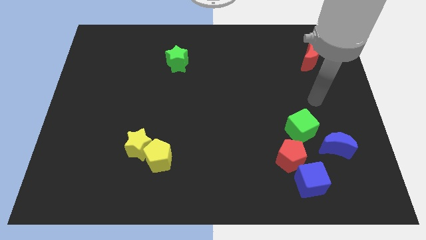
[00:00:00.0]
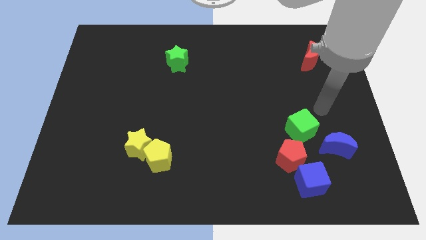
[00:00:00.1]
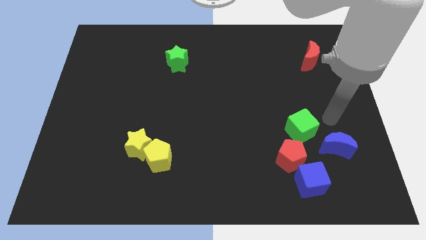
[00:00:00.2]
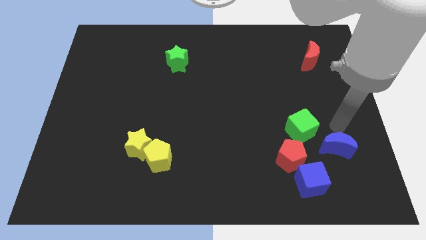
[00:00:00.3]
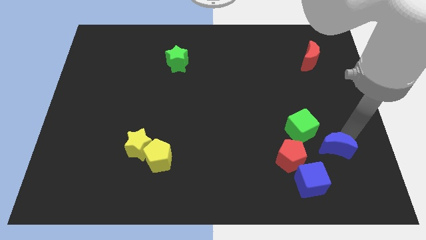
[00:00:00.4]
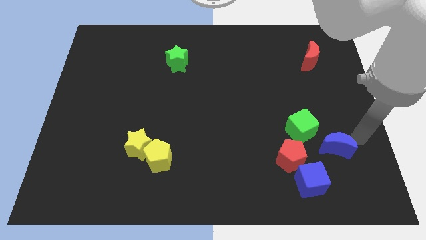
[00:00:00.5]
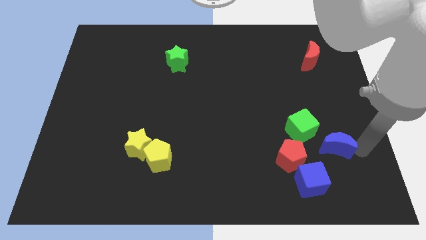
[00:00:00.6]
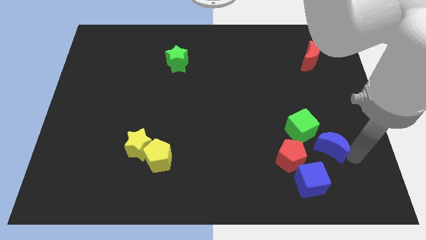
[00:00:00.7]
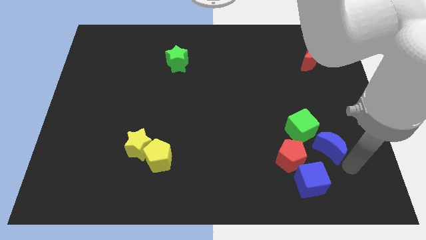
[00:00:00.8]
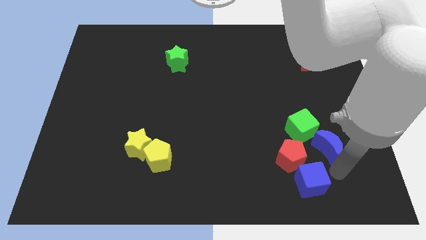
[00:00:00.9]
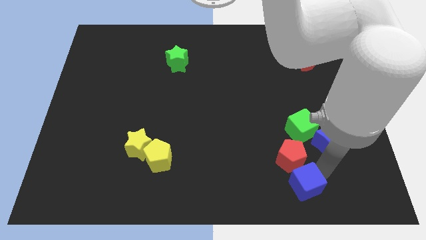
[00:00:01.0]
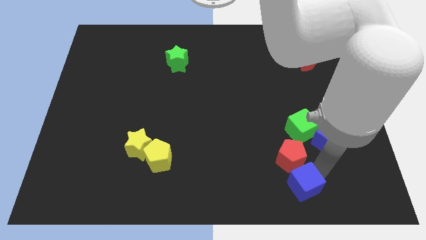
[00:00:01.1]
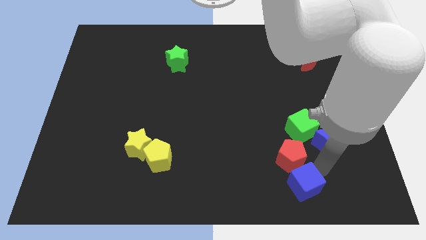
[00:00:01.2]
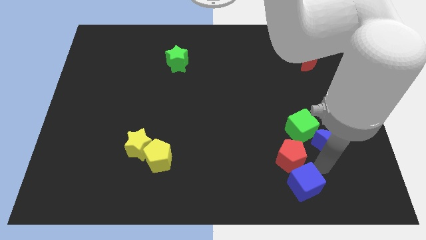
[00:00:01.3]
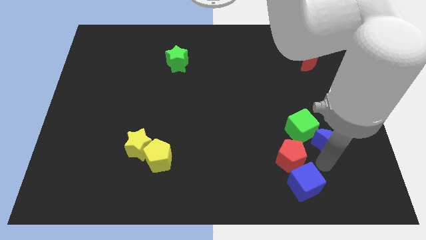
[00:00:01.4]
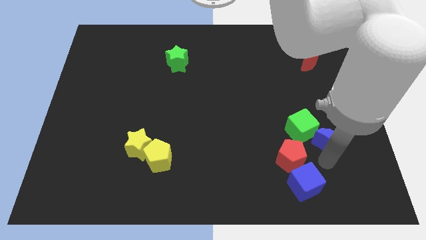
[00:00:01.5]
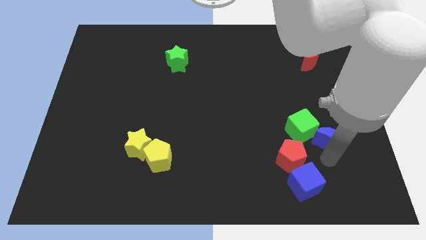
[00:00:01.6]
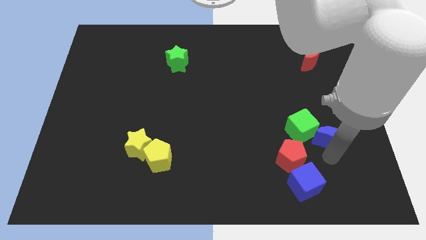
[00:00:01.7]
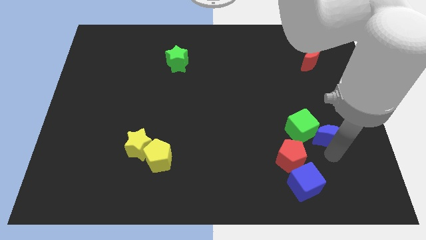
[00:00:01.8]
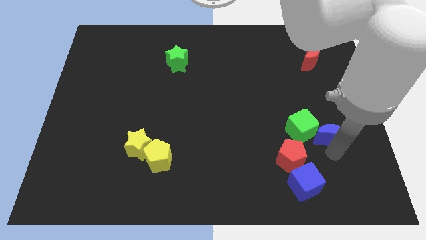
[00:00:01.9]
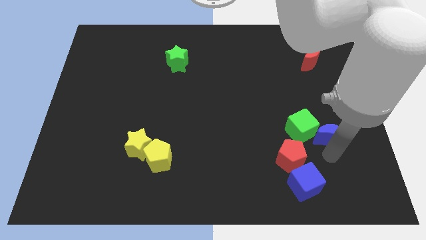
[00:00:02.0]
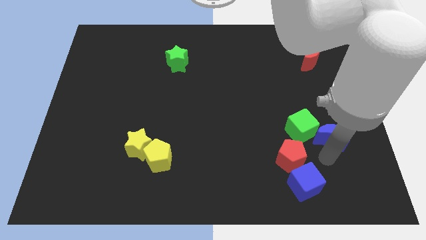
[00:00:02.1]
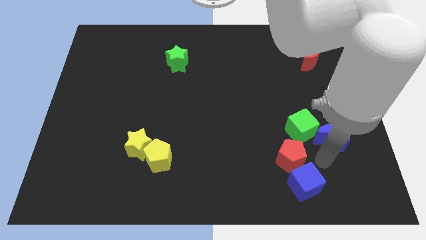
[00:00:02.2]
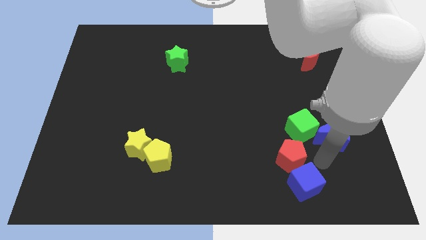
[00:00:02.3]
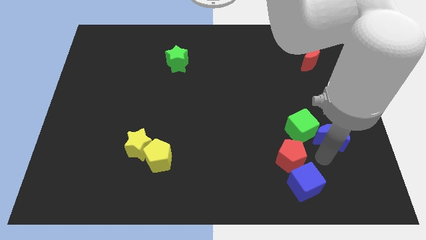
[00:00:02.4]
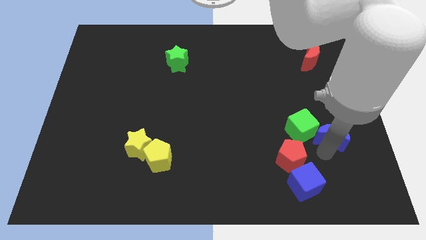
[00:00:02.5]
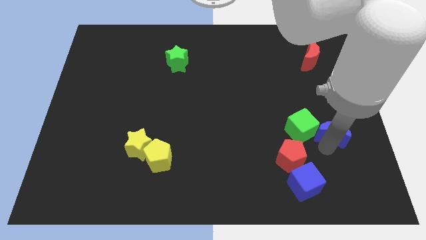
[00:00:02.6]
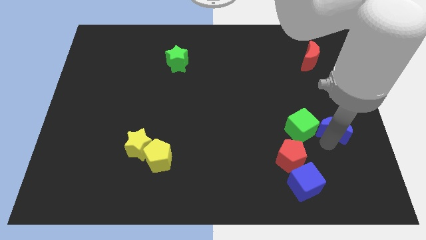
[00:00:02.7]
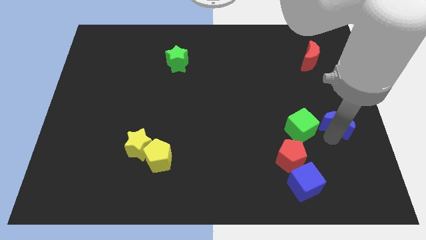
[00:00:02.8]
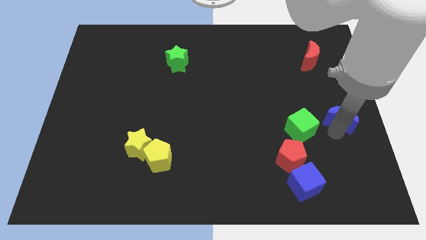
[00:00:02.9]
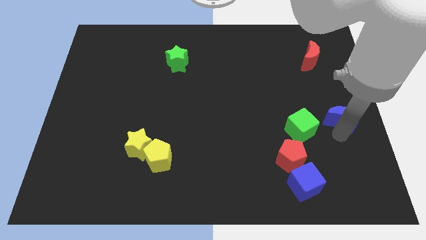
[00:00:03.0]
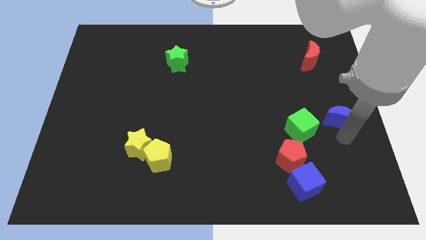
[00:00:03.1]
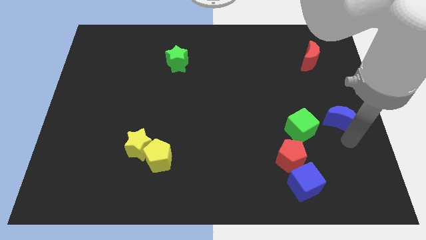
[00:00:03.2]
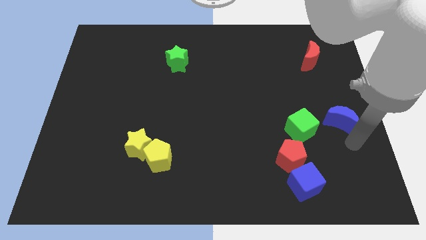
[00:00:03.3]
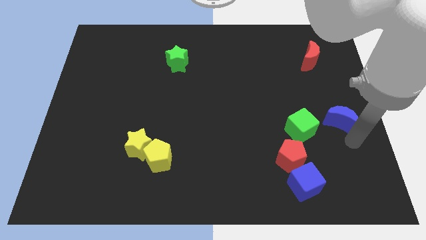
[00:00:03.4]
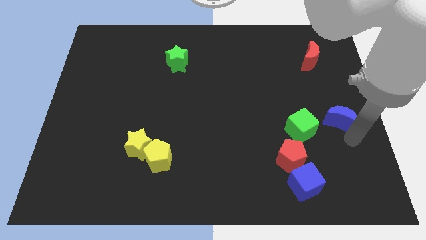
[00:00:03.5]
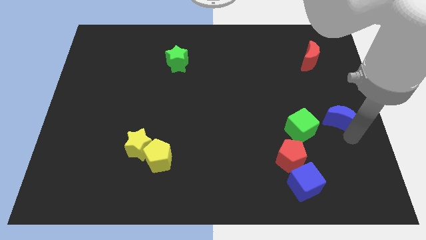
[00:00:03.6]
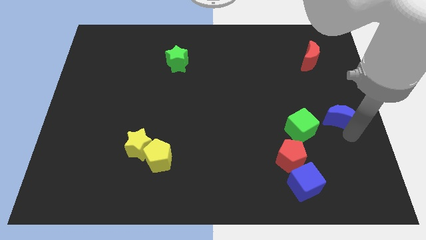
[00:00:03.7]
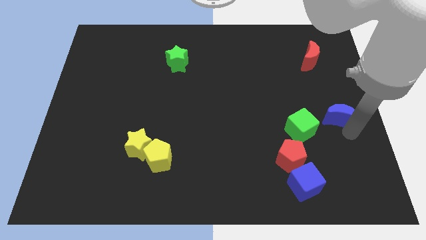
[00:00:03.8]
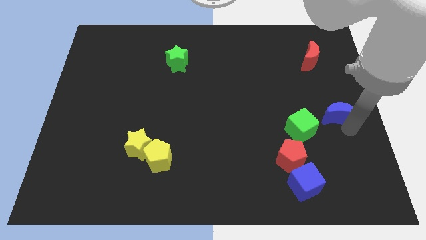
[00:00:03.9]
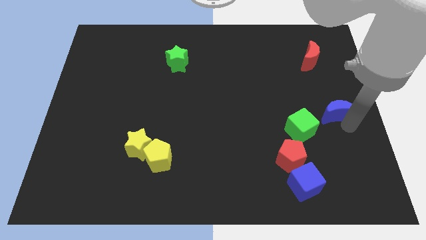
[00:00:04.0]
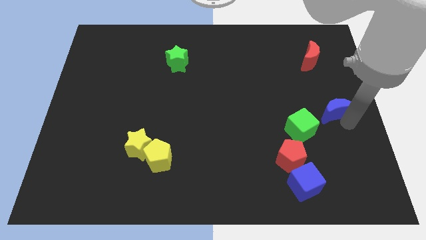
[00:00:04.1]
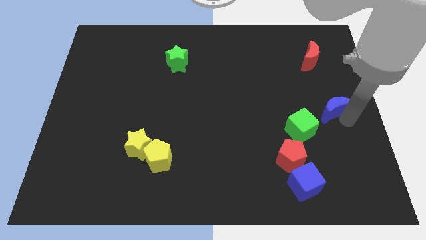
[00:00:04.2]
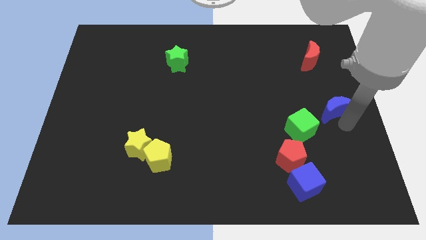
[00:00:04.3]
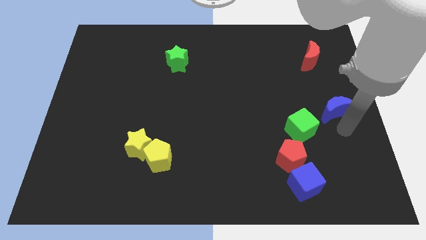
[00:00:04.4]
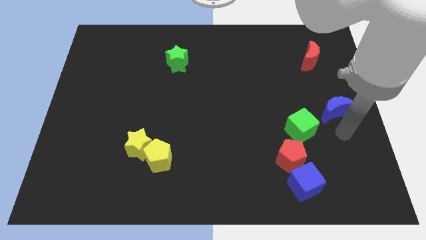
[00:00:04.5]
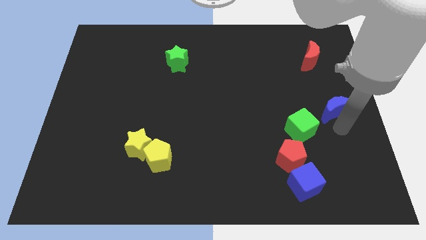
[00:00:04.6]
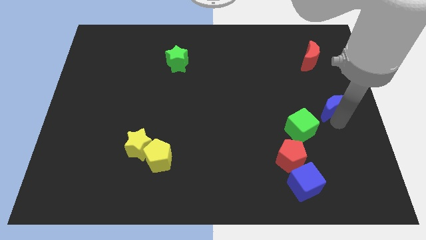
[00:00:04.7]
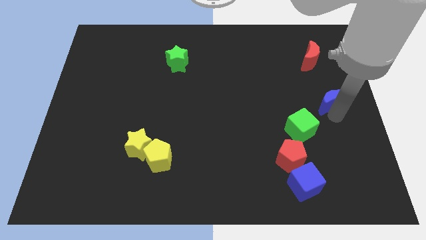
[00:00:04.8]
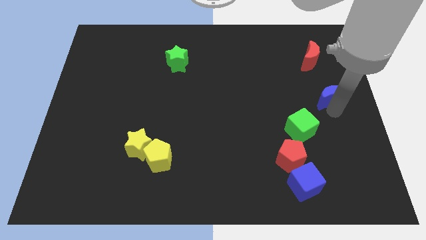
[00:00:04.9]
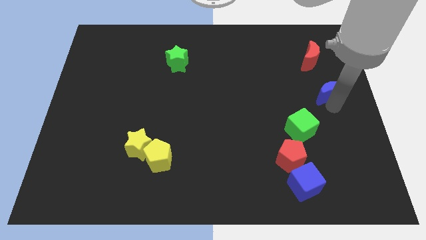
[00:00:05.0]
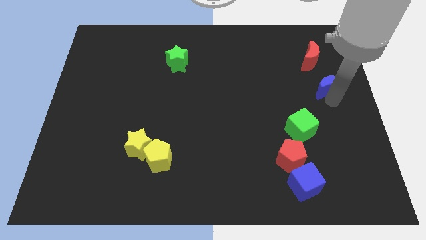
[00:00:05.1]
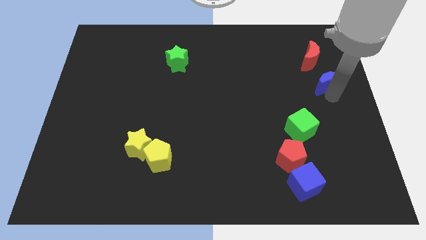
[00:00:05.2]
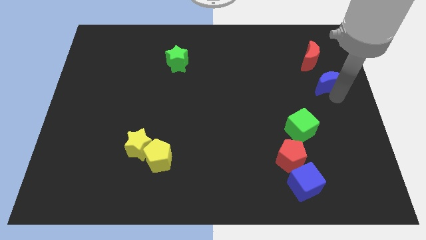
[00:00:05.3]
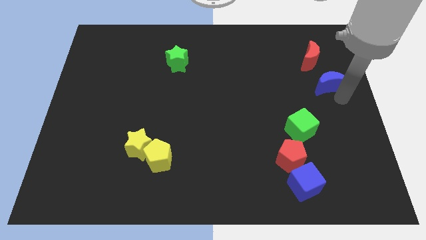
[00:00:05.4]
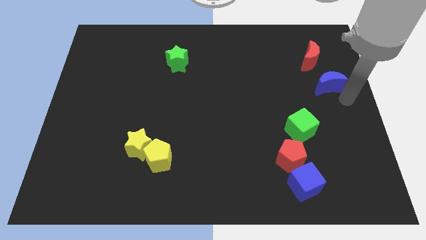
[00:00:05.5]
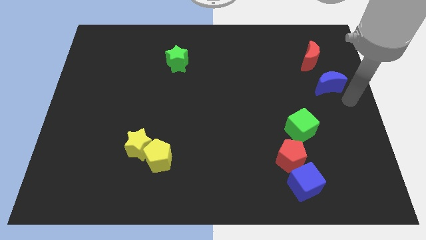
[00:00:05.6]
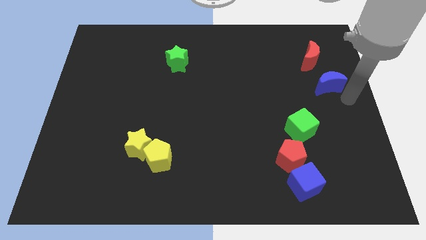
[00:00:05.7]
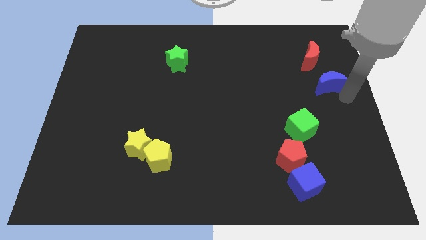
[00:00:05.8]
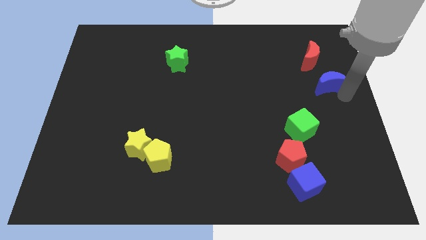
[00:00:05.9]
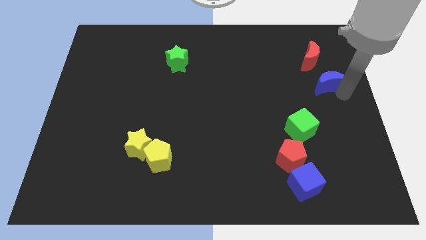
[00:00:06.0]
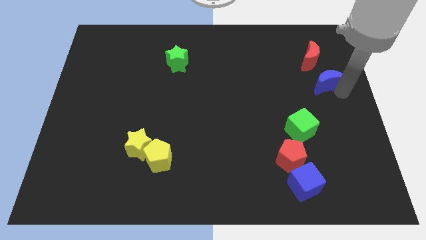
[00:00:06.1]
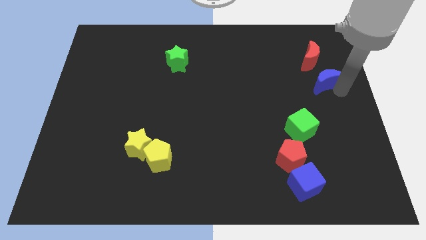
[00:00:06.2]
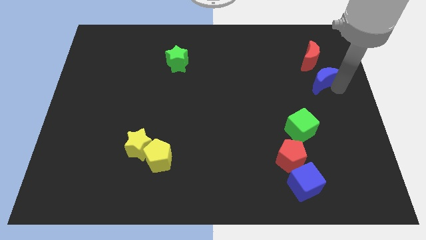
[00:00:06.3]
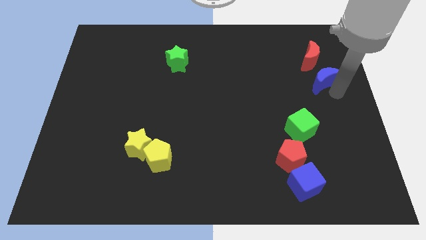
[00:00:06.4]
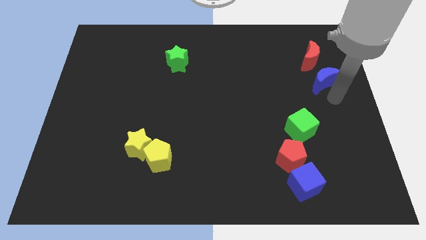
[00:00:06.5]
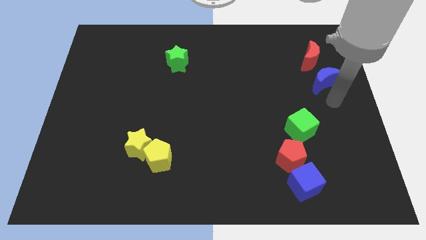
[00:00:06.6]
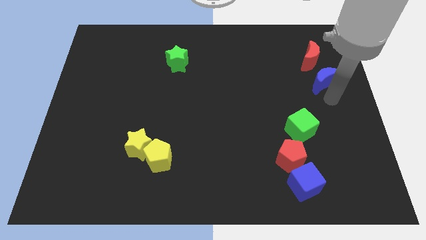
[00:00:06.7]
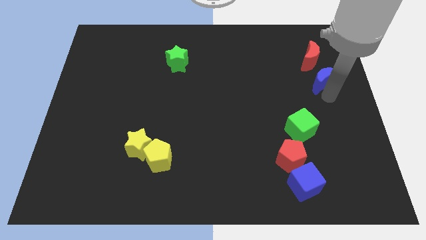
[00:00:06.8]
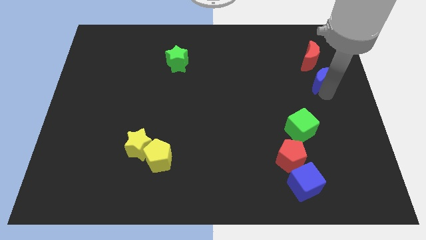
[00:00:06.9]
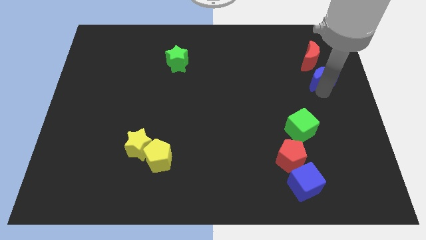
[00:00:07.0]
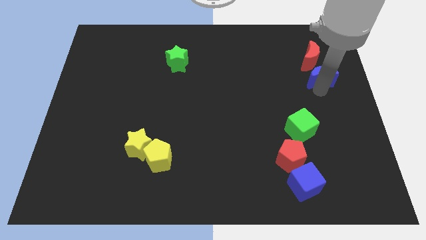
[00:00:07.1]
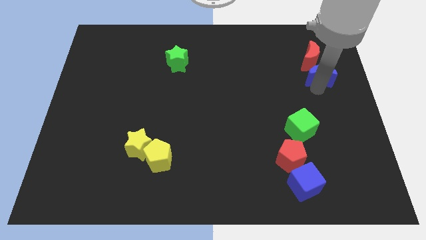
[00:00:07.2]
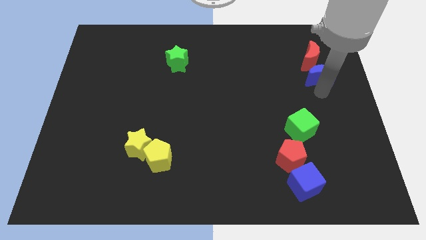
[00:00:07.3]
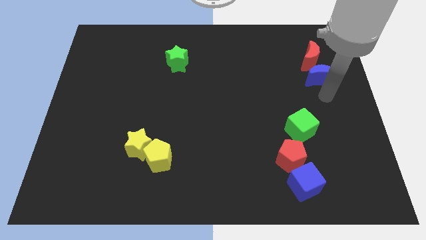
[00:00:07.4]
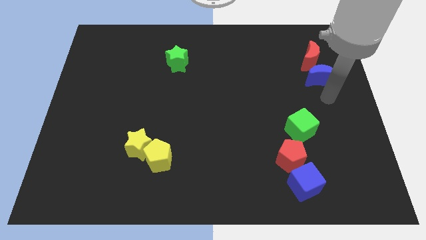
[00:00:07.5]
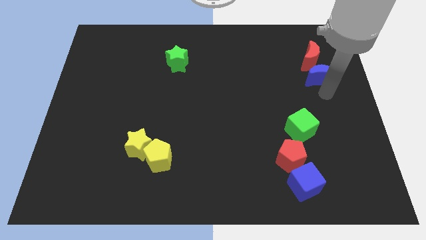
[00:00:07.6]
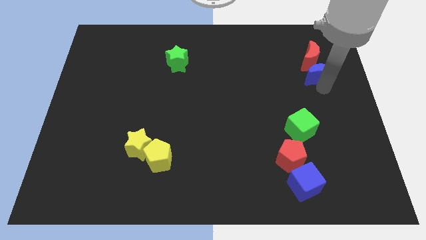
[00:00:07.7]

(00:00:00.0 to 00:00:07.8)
move the blue moon to the red moon

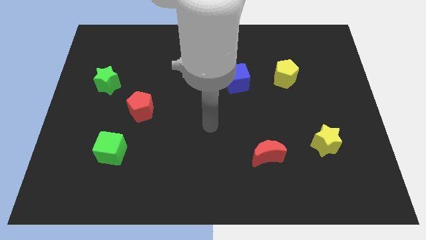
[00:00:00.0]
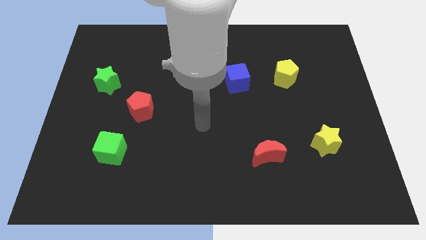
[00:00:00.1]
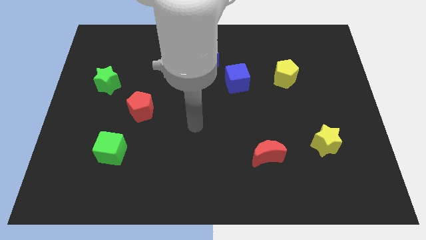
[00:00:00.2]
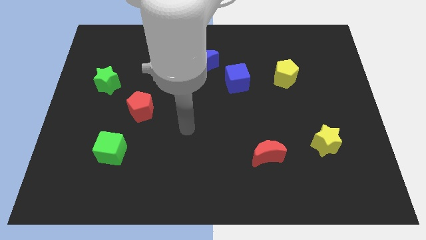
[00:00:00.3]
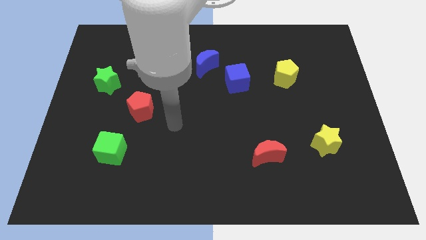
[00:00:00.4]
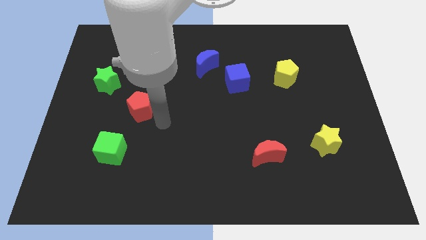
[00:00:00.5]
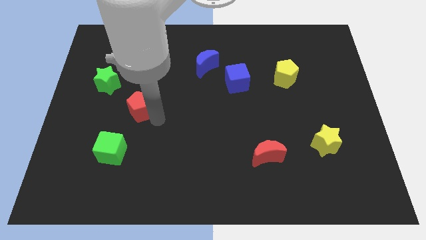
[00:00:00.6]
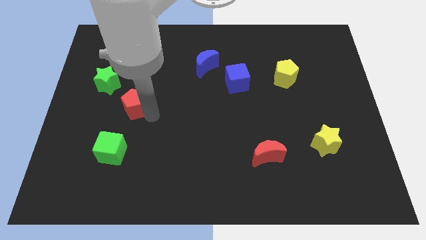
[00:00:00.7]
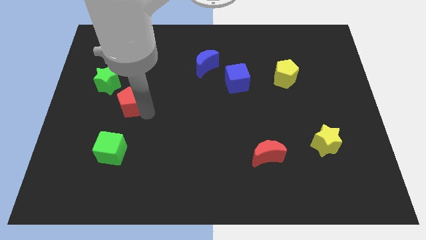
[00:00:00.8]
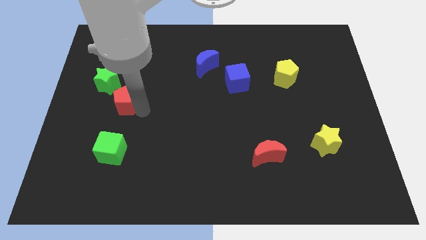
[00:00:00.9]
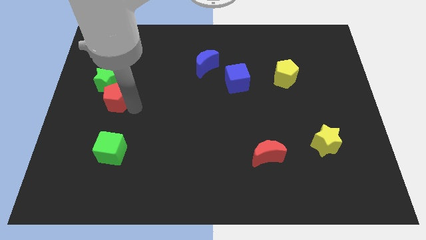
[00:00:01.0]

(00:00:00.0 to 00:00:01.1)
slide the red pentagon to the green star
